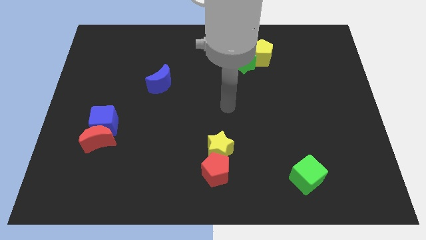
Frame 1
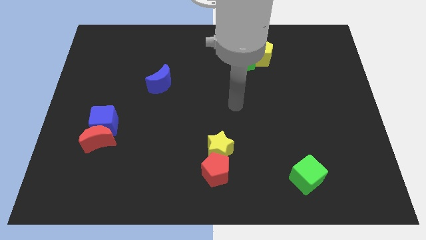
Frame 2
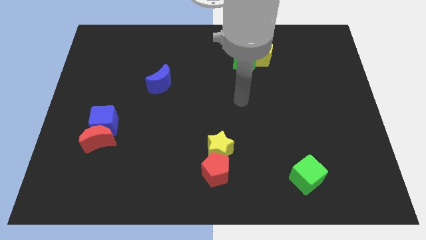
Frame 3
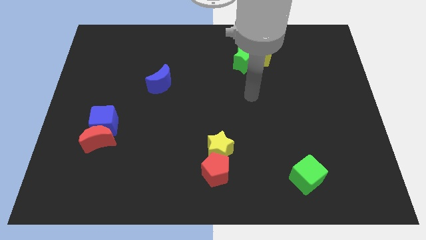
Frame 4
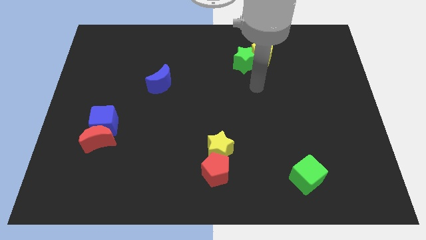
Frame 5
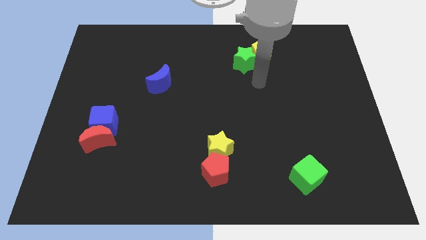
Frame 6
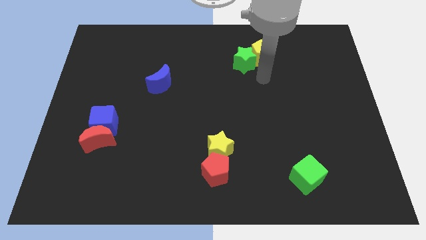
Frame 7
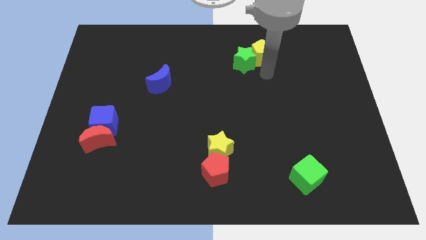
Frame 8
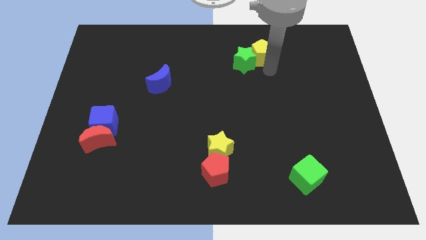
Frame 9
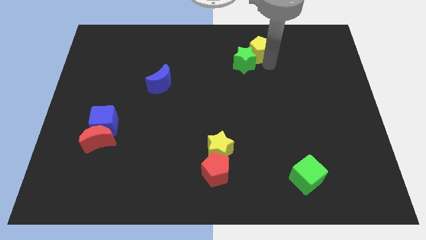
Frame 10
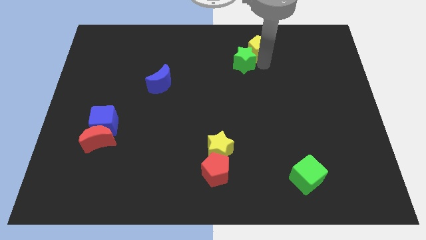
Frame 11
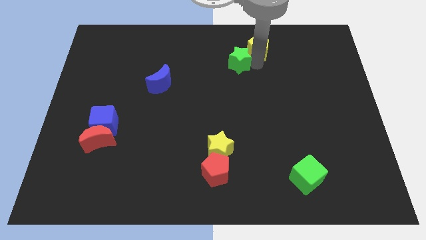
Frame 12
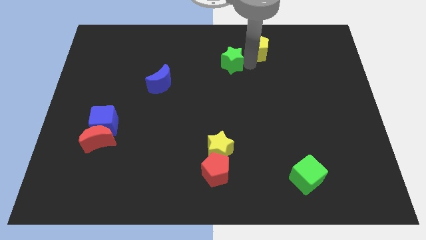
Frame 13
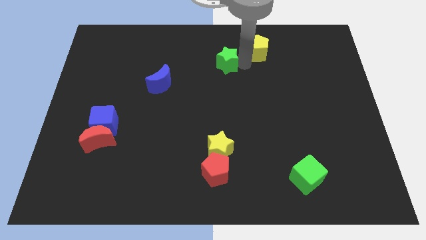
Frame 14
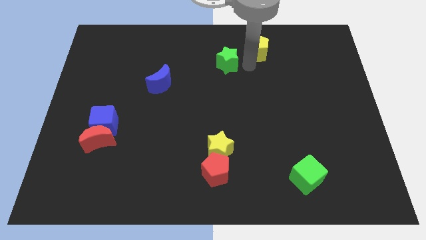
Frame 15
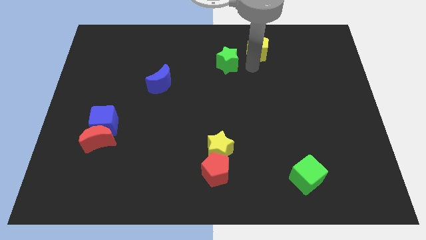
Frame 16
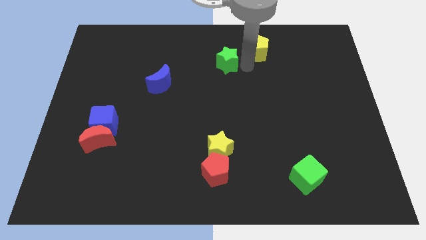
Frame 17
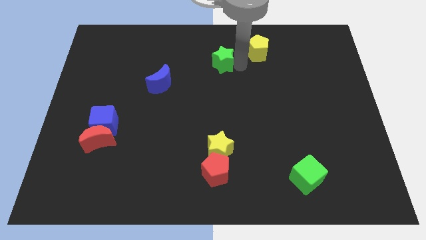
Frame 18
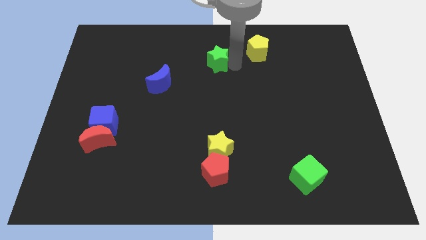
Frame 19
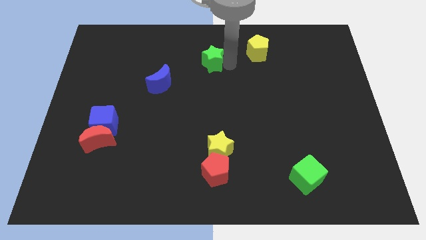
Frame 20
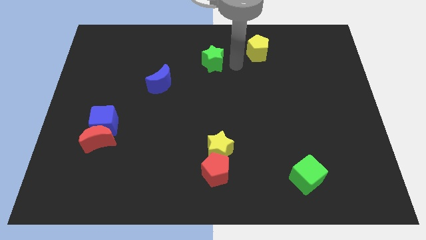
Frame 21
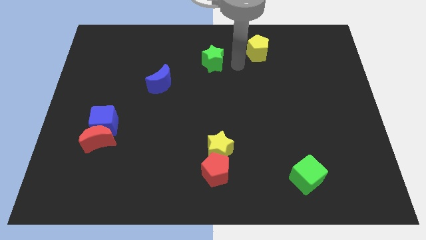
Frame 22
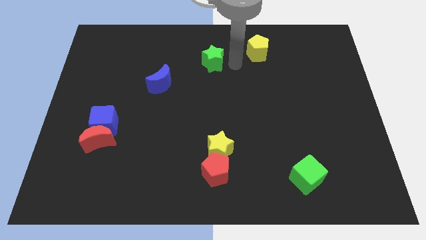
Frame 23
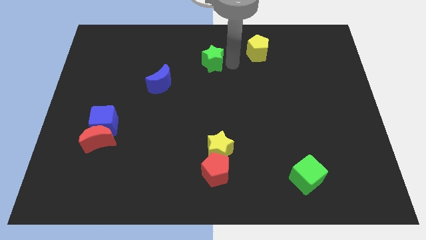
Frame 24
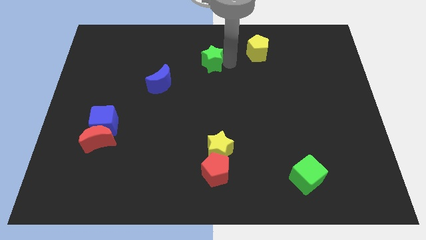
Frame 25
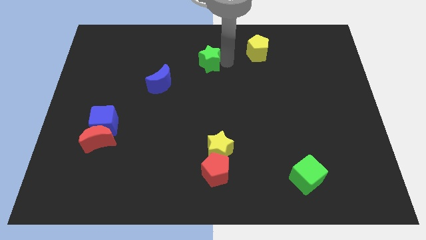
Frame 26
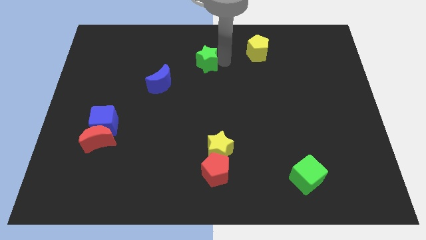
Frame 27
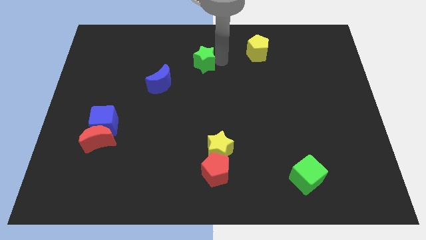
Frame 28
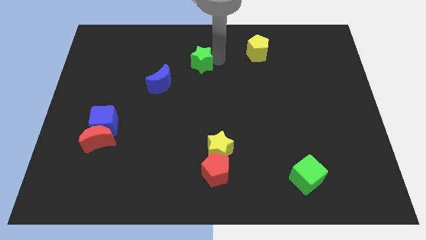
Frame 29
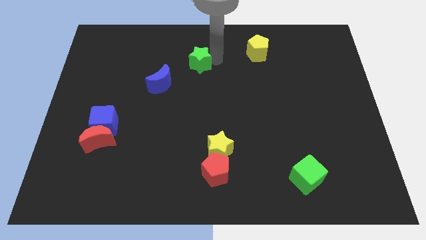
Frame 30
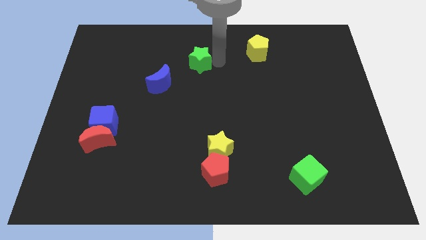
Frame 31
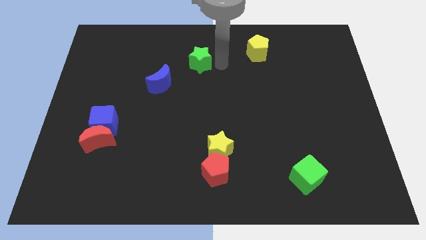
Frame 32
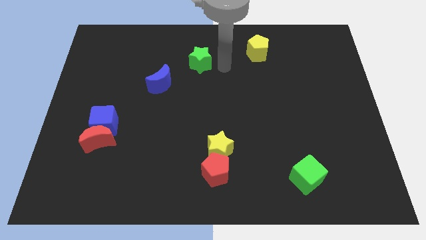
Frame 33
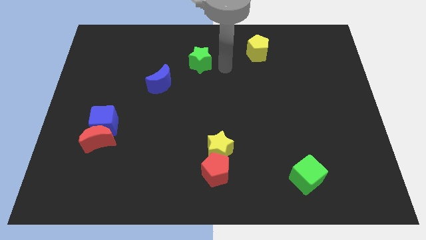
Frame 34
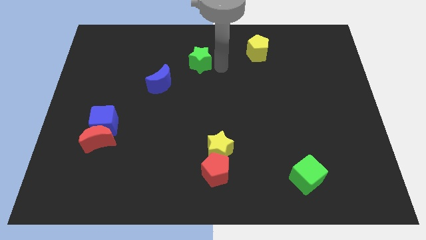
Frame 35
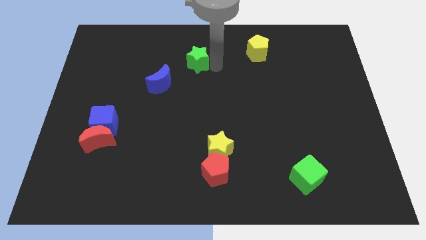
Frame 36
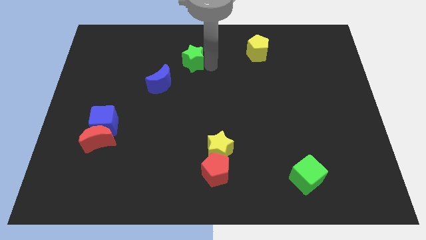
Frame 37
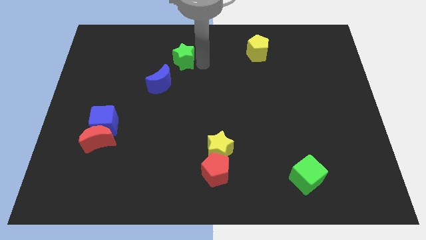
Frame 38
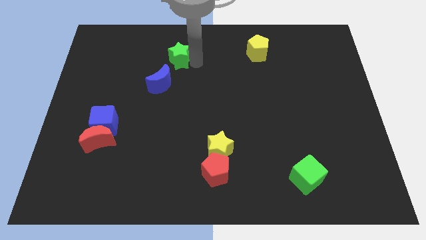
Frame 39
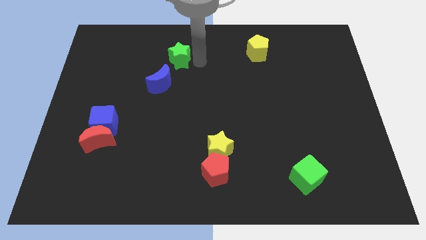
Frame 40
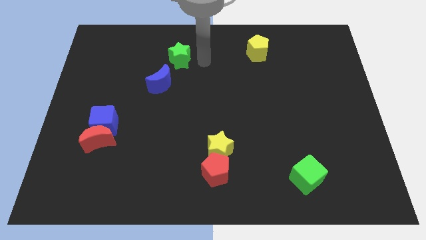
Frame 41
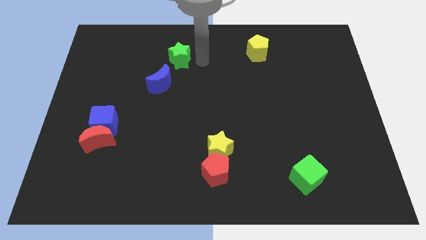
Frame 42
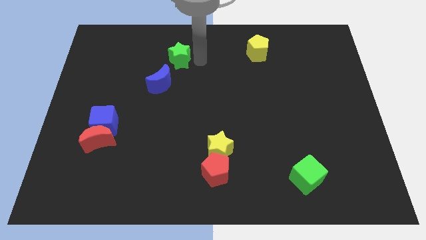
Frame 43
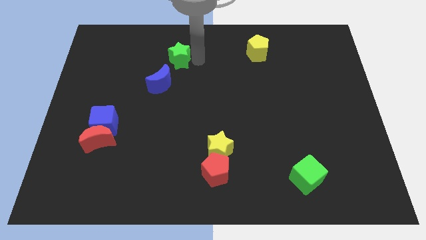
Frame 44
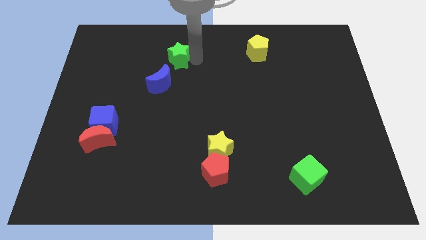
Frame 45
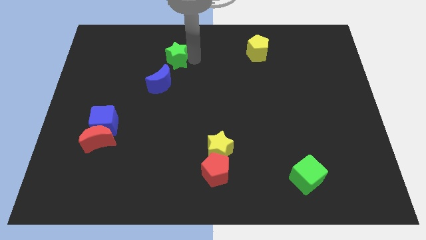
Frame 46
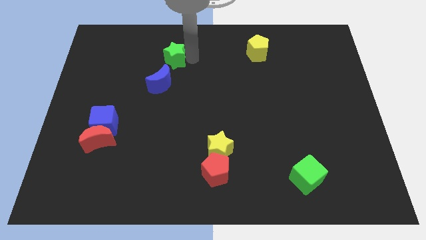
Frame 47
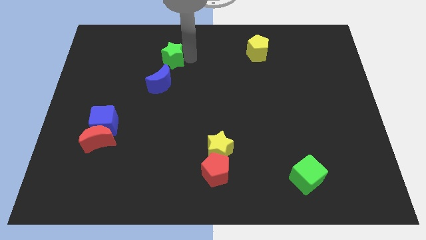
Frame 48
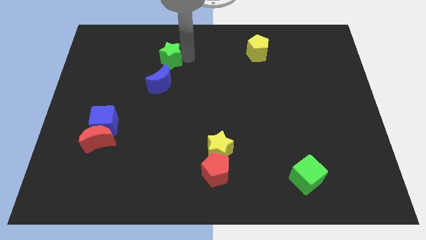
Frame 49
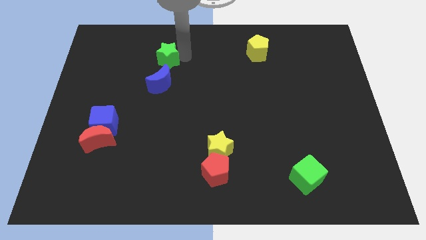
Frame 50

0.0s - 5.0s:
push the green star left

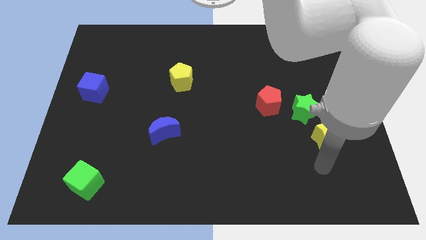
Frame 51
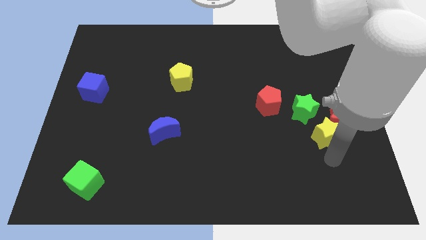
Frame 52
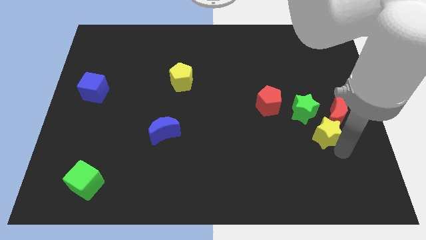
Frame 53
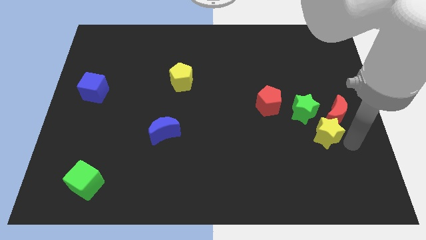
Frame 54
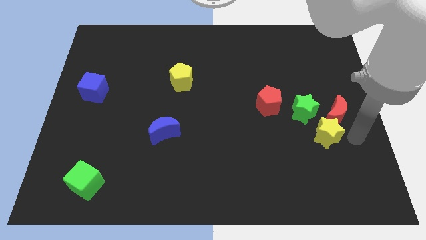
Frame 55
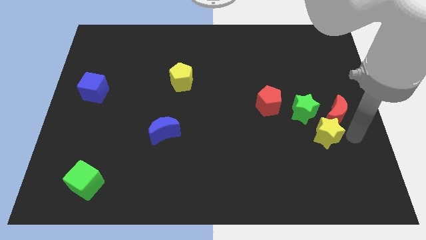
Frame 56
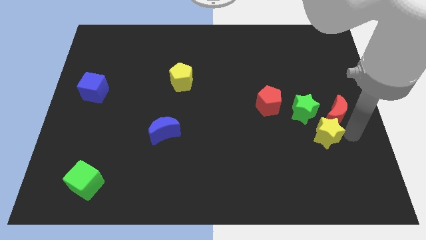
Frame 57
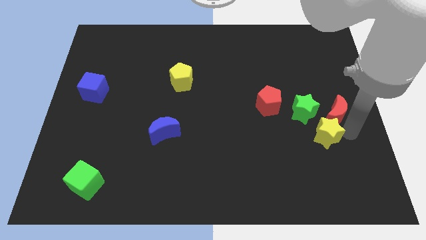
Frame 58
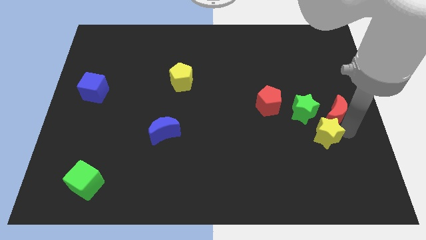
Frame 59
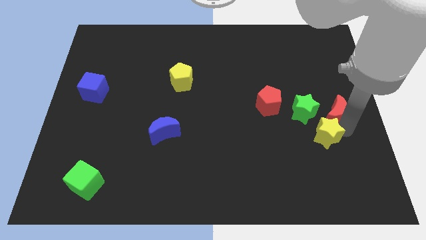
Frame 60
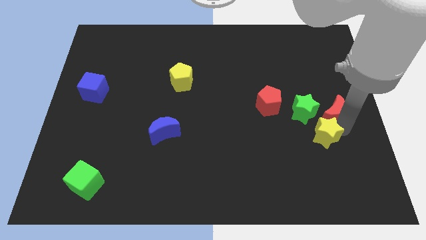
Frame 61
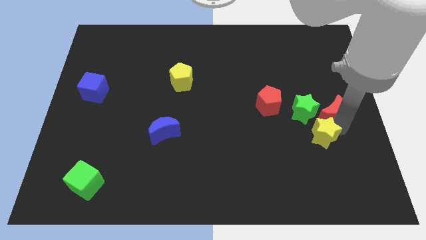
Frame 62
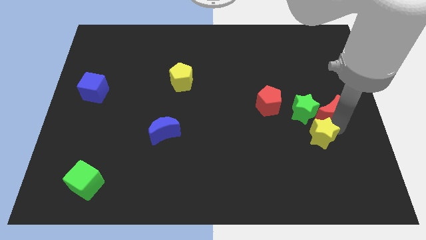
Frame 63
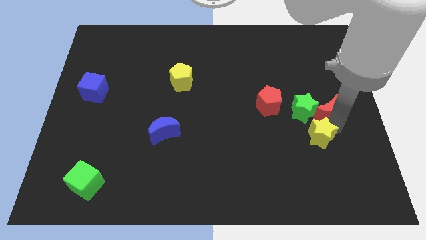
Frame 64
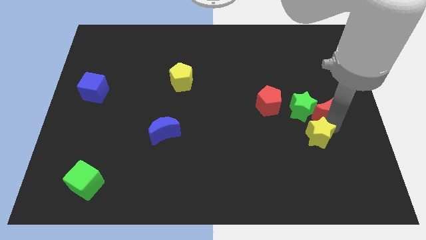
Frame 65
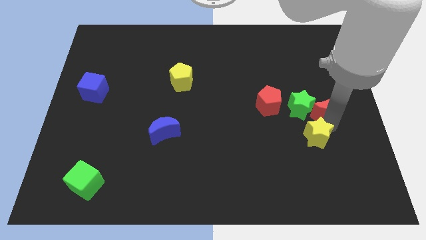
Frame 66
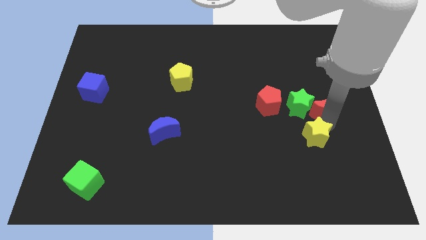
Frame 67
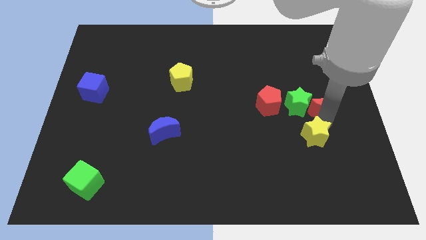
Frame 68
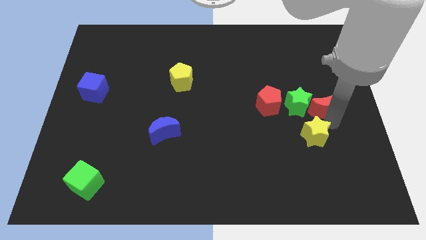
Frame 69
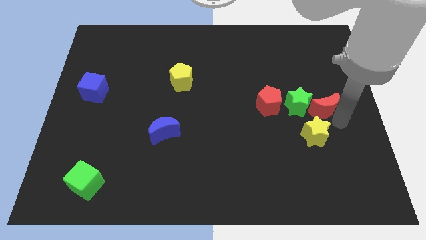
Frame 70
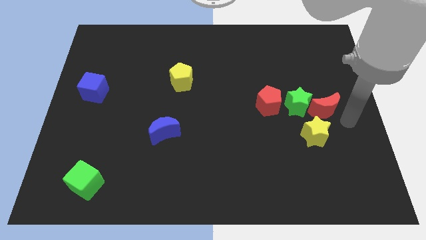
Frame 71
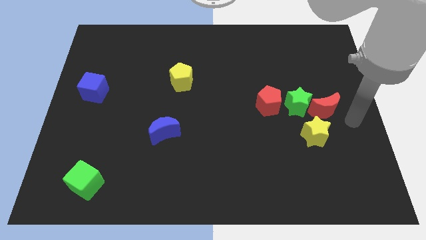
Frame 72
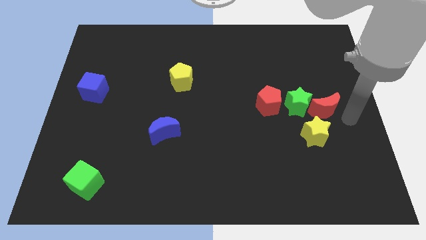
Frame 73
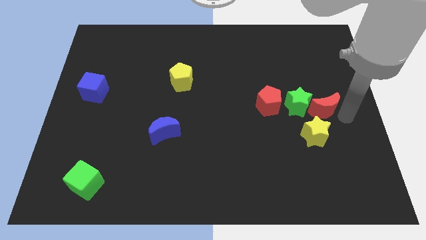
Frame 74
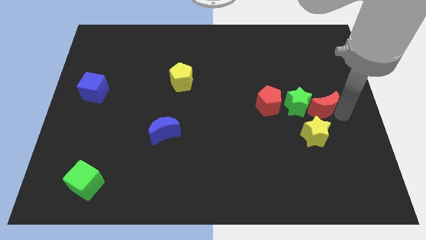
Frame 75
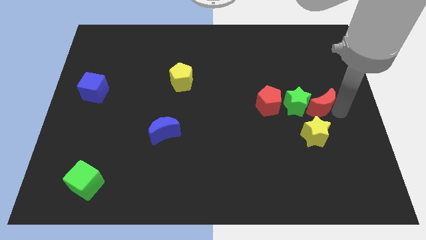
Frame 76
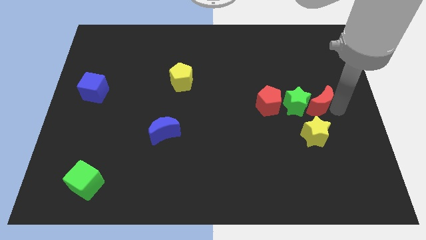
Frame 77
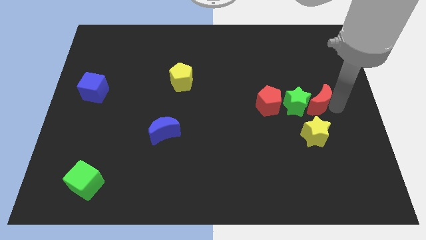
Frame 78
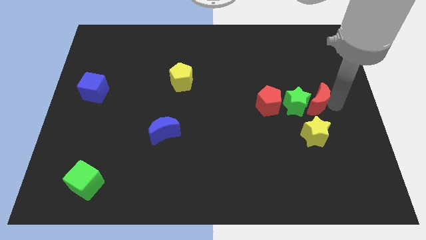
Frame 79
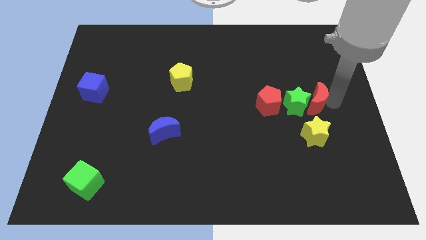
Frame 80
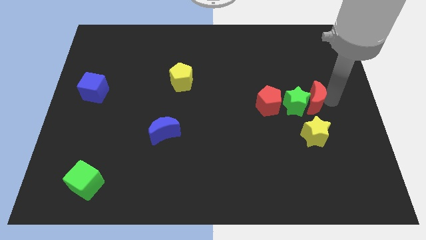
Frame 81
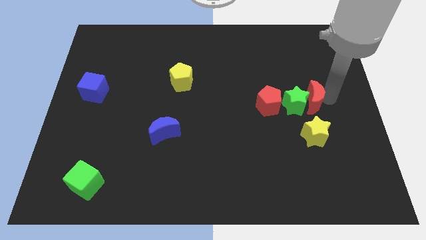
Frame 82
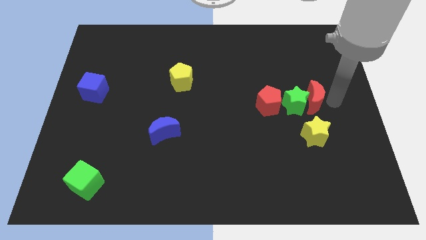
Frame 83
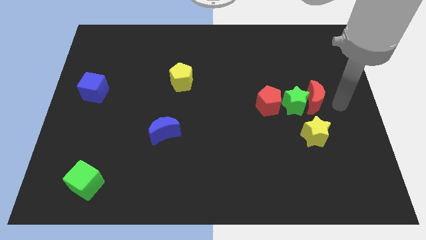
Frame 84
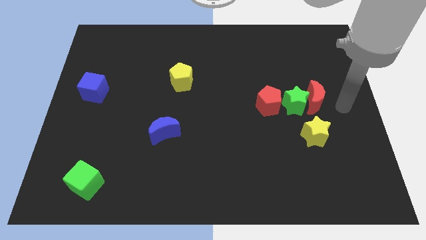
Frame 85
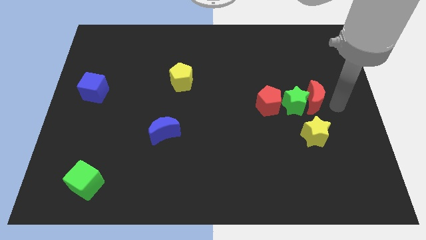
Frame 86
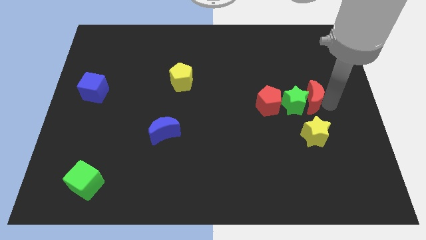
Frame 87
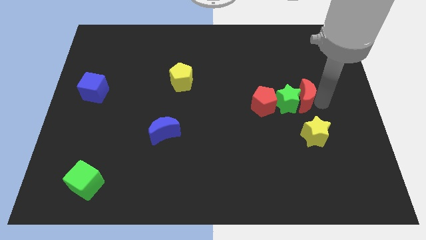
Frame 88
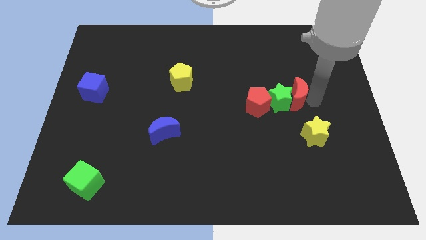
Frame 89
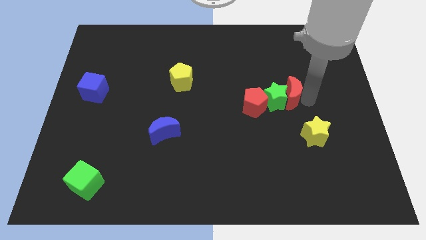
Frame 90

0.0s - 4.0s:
slide the red moon to the left a bit
